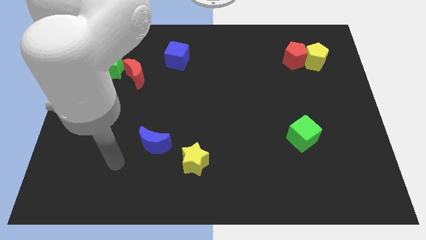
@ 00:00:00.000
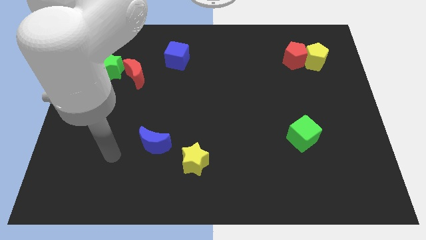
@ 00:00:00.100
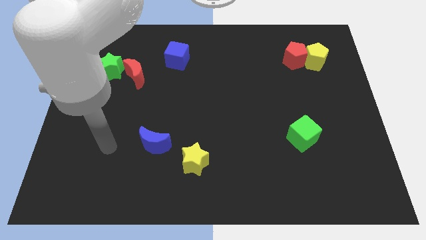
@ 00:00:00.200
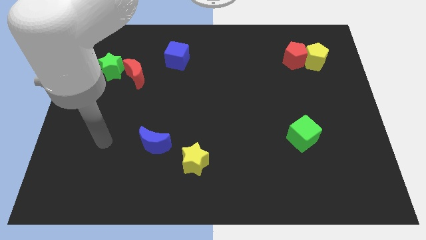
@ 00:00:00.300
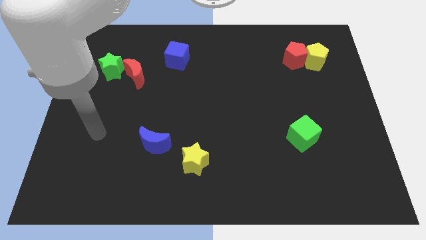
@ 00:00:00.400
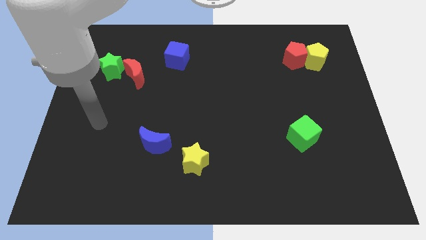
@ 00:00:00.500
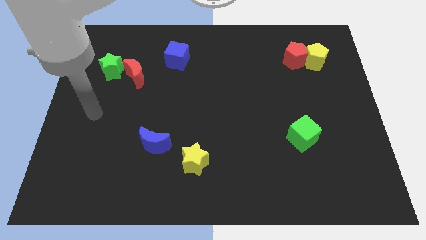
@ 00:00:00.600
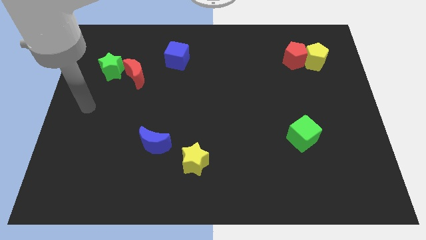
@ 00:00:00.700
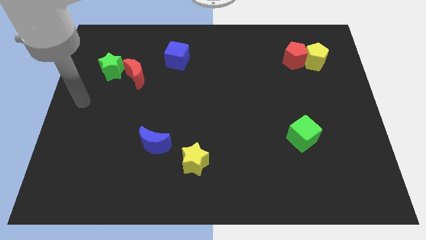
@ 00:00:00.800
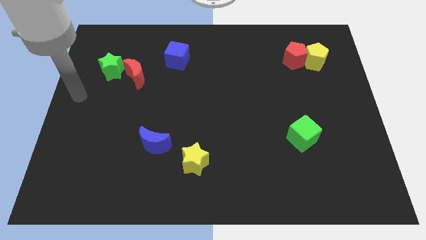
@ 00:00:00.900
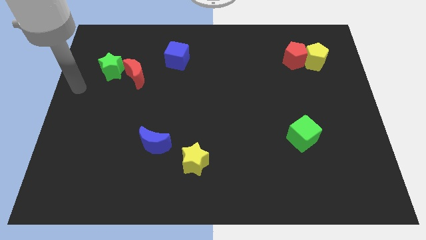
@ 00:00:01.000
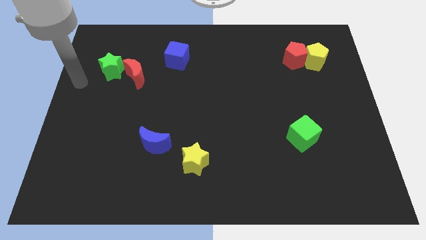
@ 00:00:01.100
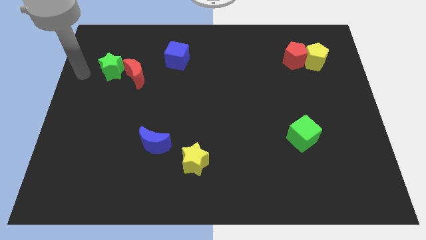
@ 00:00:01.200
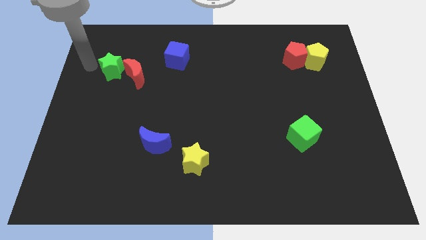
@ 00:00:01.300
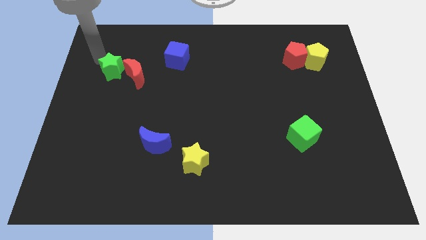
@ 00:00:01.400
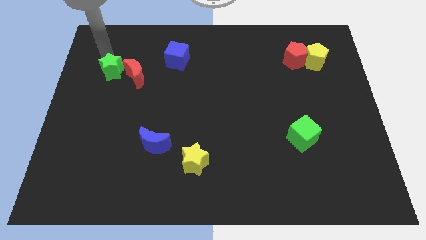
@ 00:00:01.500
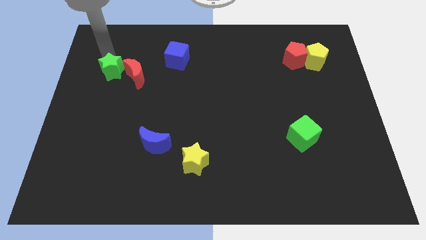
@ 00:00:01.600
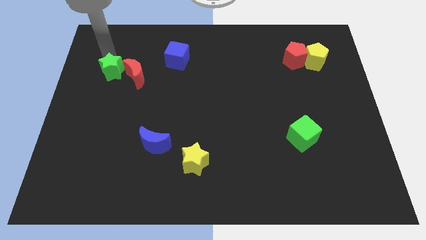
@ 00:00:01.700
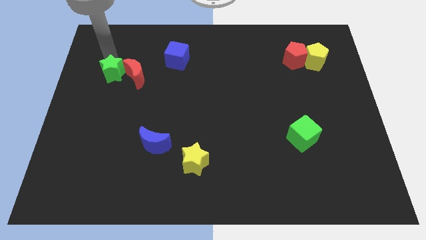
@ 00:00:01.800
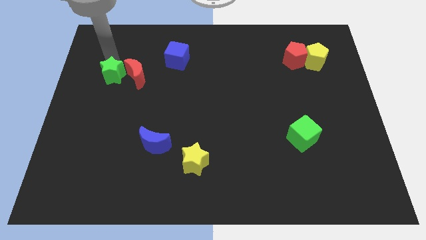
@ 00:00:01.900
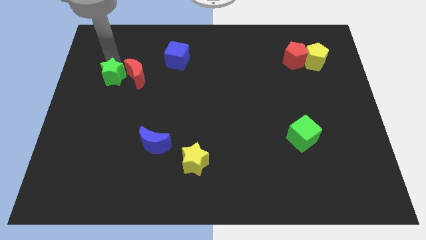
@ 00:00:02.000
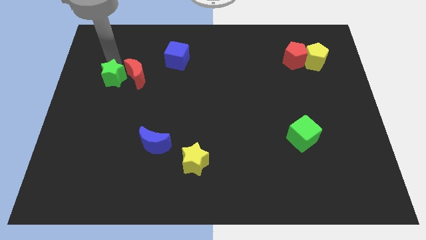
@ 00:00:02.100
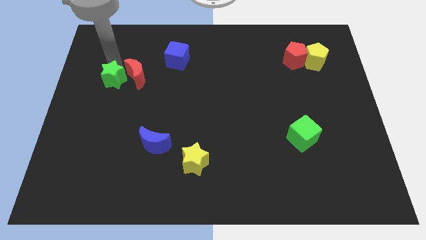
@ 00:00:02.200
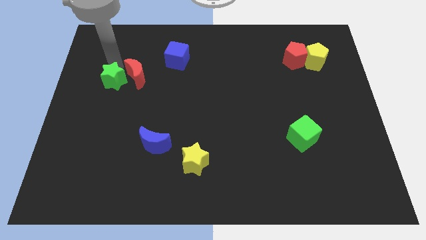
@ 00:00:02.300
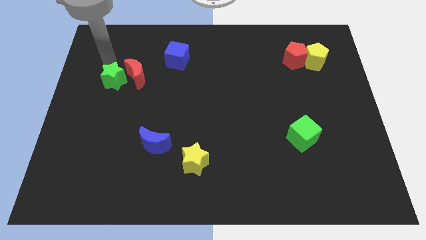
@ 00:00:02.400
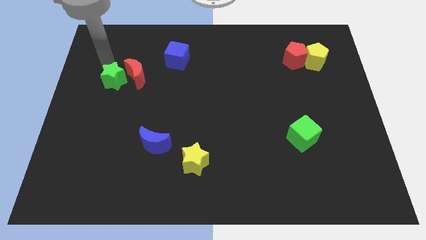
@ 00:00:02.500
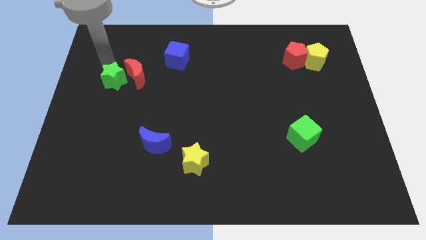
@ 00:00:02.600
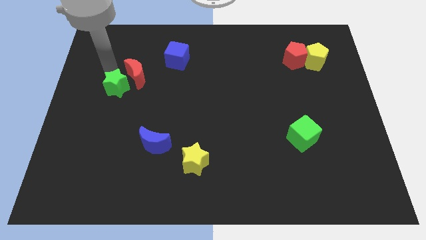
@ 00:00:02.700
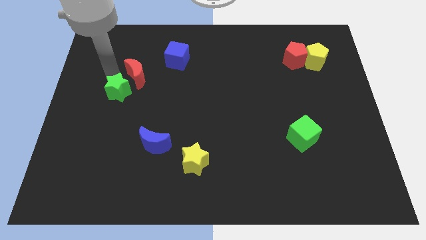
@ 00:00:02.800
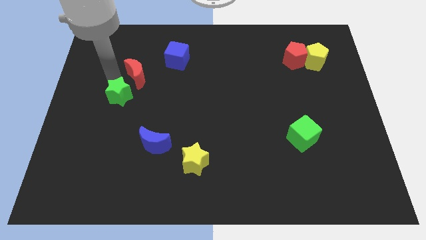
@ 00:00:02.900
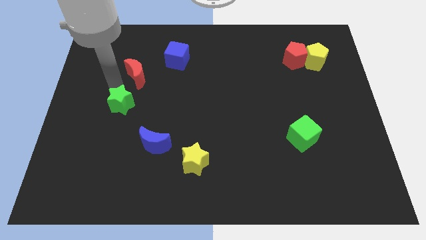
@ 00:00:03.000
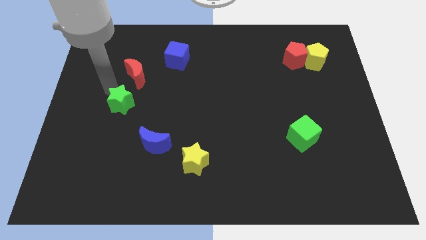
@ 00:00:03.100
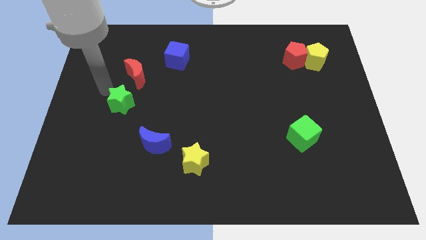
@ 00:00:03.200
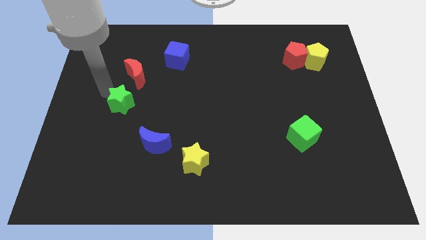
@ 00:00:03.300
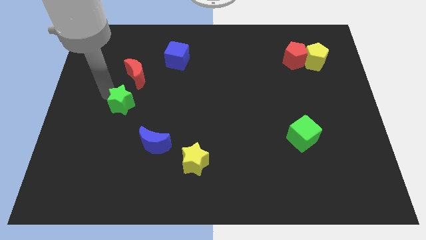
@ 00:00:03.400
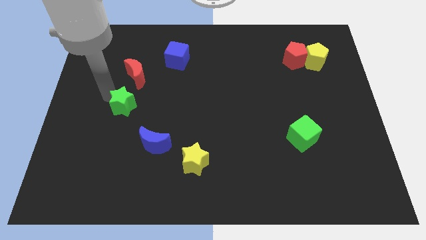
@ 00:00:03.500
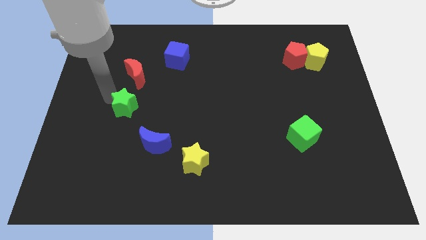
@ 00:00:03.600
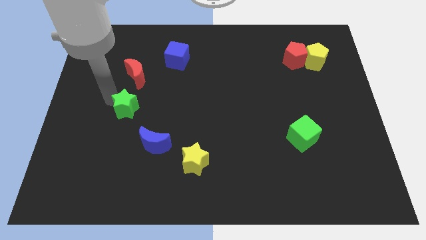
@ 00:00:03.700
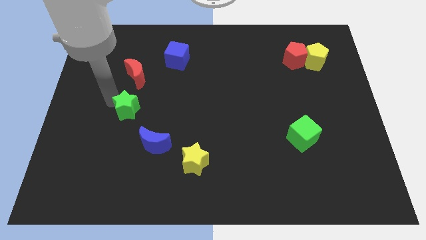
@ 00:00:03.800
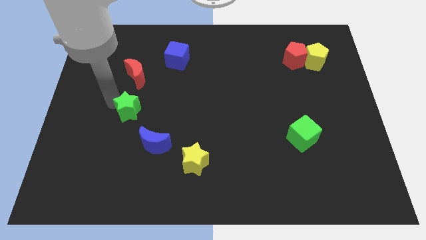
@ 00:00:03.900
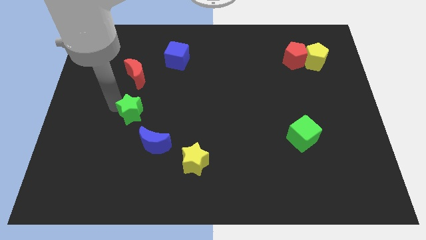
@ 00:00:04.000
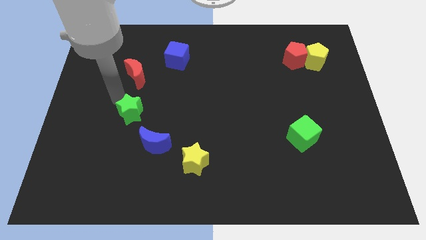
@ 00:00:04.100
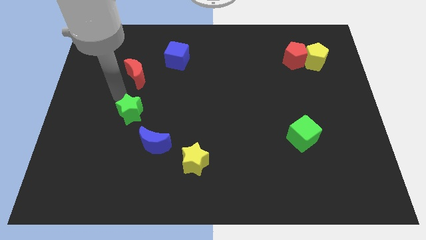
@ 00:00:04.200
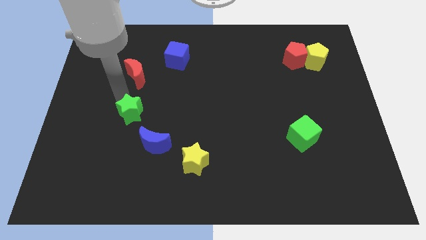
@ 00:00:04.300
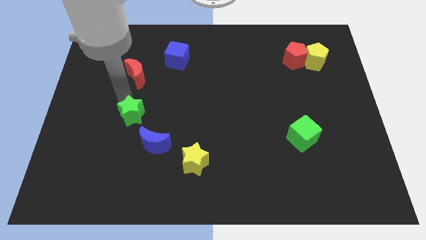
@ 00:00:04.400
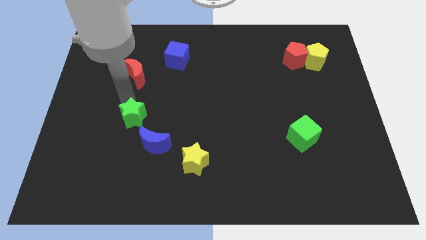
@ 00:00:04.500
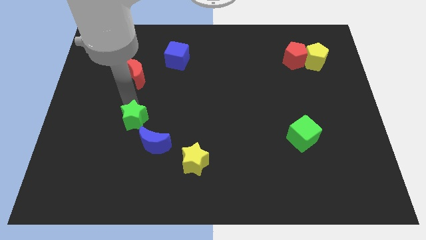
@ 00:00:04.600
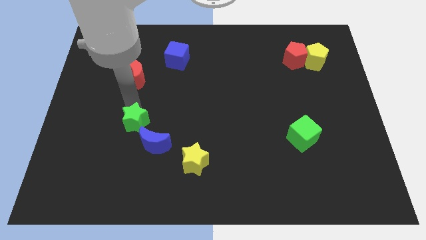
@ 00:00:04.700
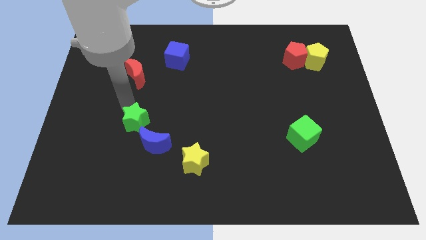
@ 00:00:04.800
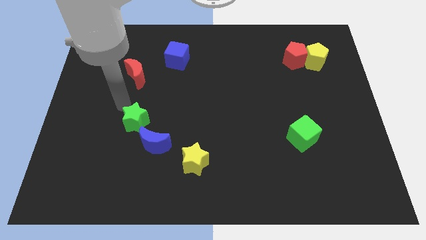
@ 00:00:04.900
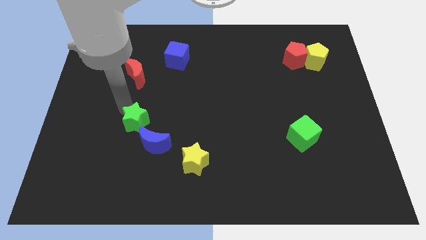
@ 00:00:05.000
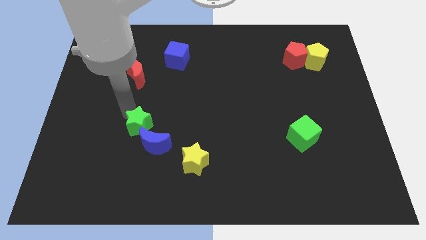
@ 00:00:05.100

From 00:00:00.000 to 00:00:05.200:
slide the green star to the blue moon

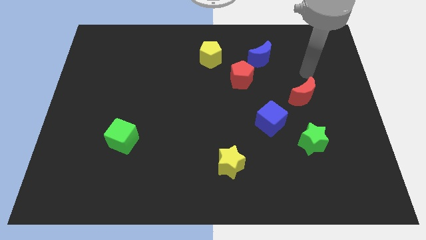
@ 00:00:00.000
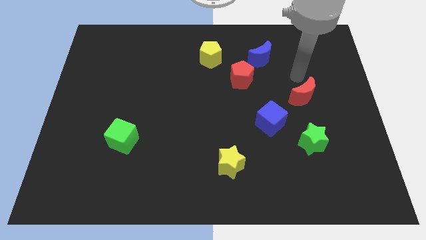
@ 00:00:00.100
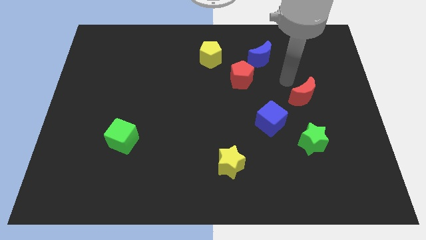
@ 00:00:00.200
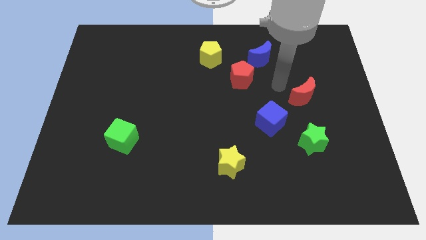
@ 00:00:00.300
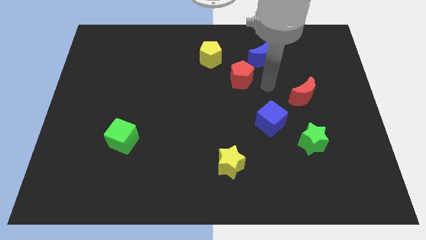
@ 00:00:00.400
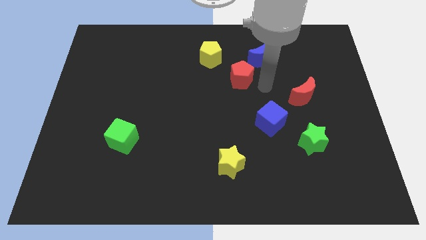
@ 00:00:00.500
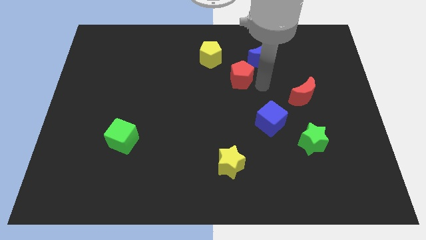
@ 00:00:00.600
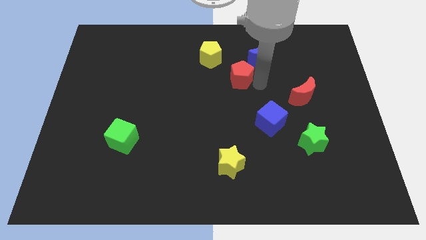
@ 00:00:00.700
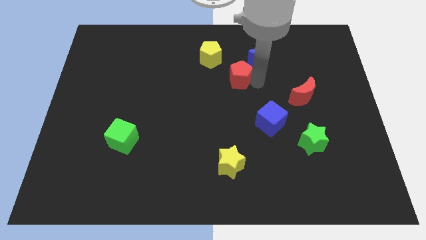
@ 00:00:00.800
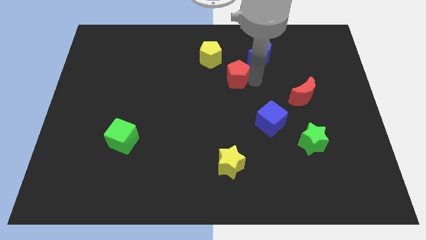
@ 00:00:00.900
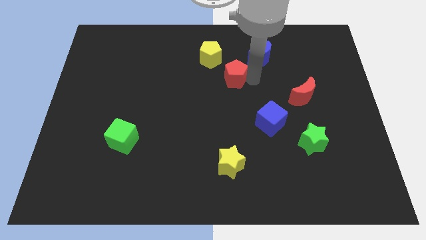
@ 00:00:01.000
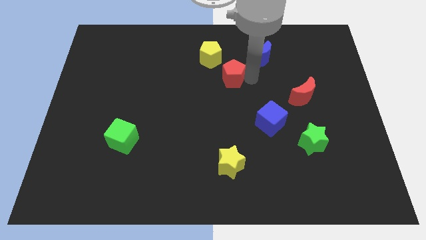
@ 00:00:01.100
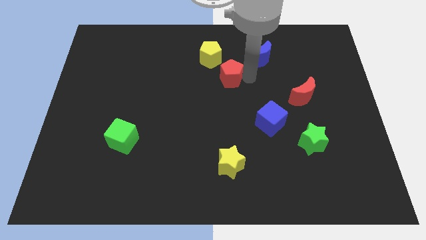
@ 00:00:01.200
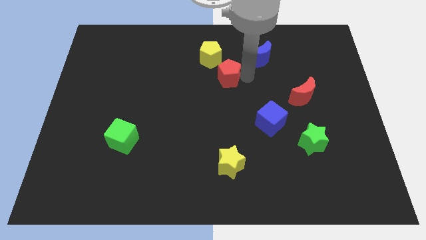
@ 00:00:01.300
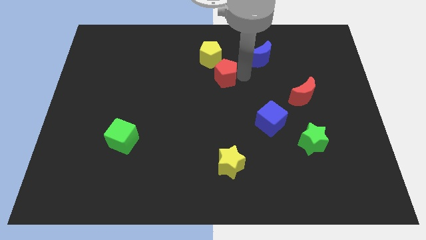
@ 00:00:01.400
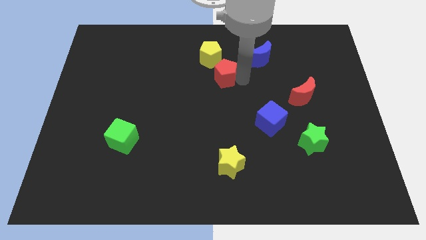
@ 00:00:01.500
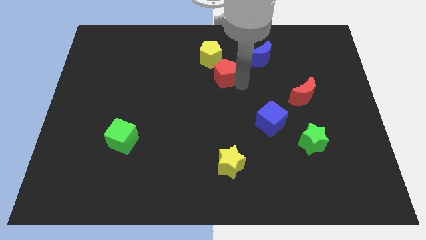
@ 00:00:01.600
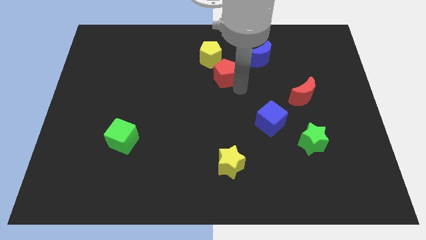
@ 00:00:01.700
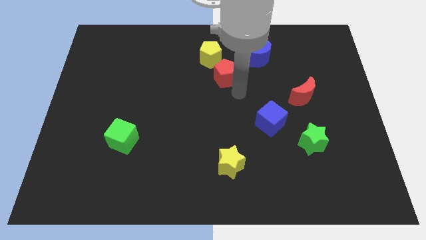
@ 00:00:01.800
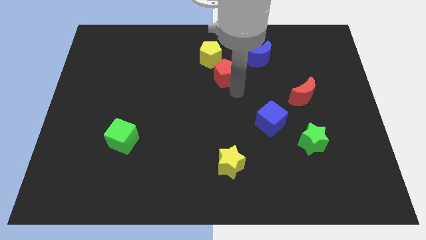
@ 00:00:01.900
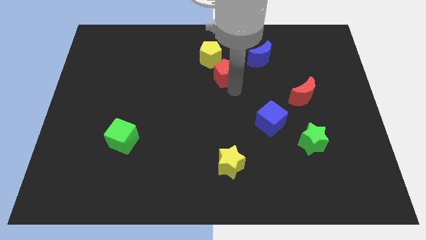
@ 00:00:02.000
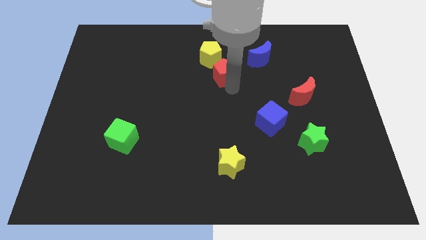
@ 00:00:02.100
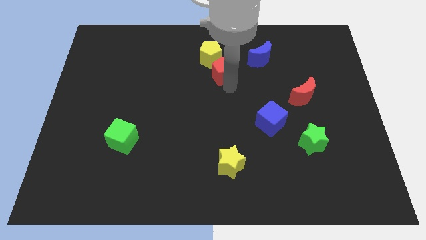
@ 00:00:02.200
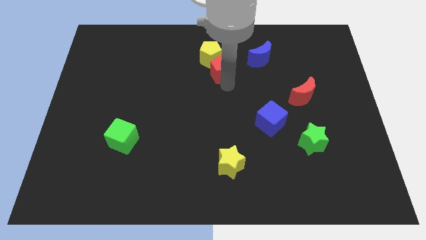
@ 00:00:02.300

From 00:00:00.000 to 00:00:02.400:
slide the red pentagon towards the yellow pentagon
